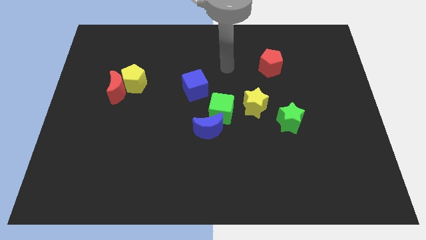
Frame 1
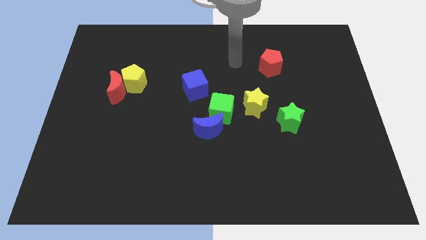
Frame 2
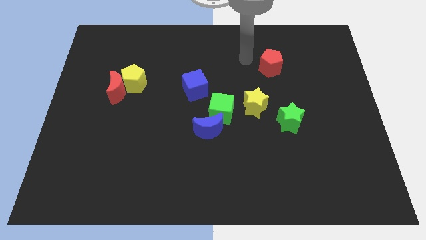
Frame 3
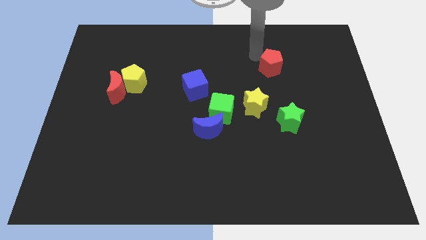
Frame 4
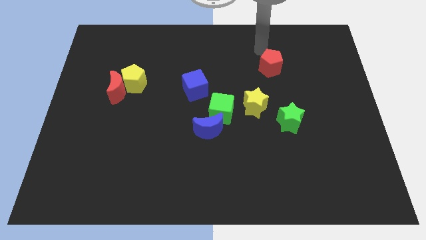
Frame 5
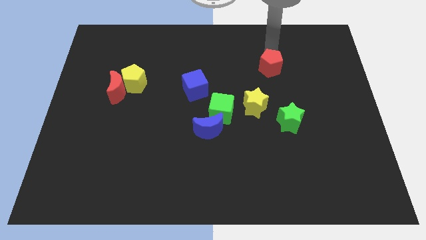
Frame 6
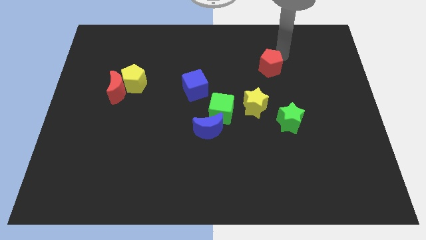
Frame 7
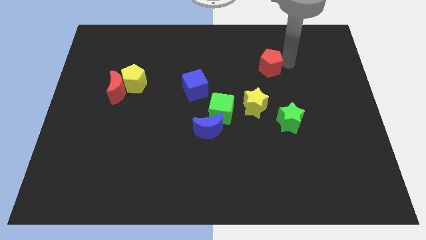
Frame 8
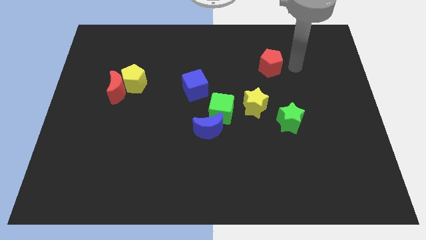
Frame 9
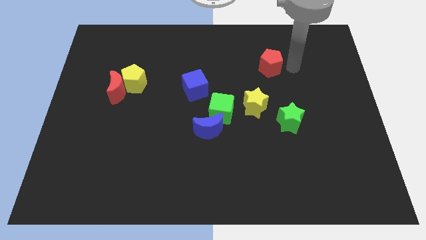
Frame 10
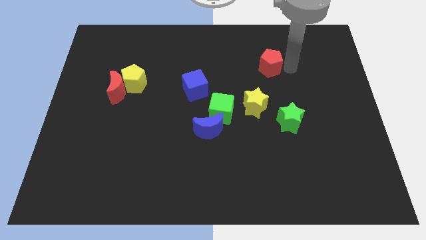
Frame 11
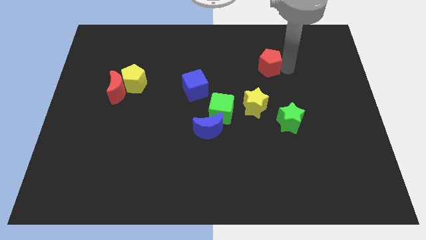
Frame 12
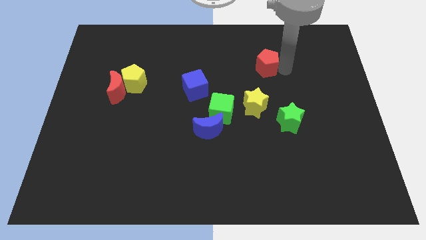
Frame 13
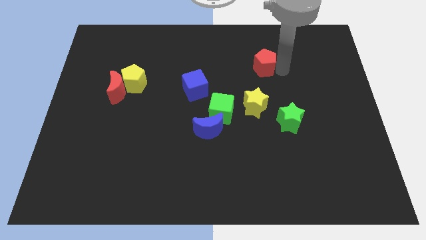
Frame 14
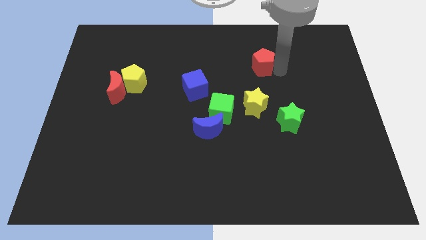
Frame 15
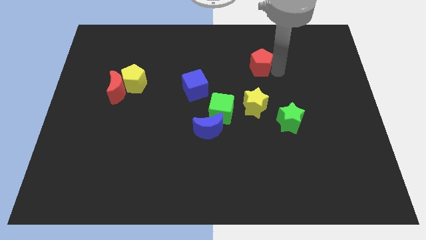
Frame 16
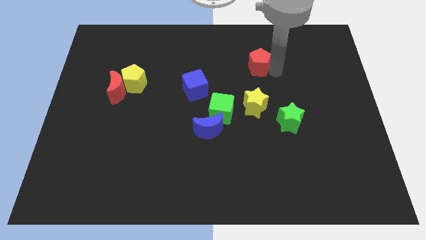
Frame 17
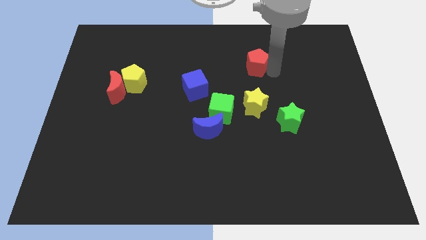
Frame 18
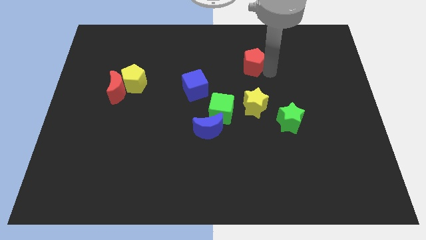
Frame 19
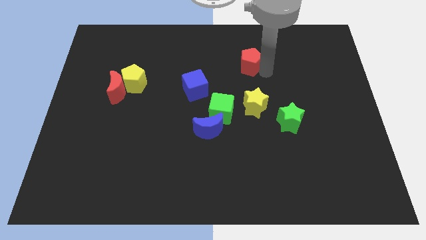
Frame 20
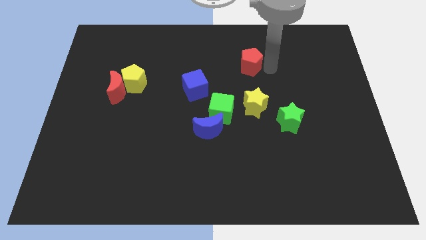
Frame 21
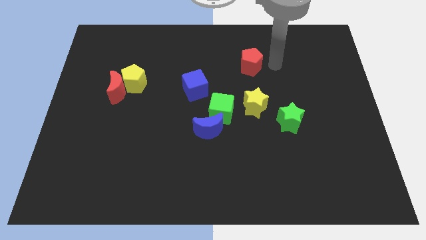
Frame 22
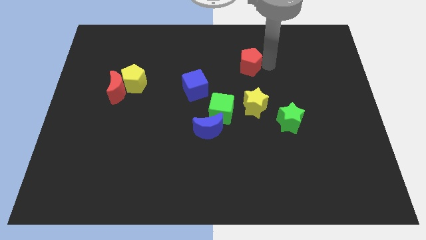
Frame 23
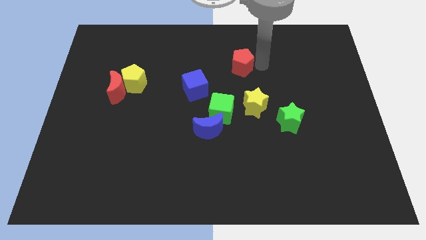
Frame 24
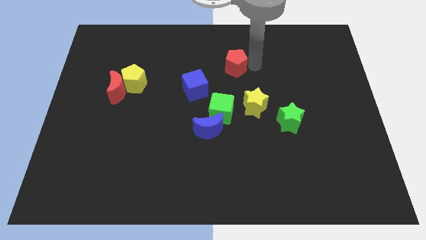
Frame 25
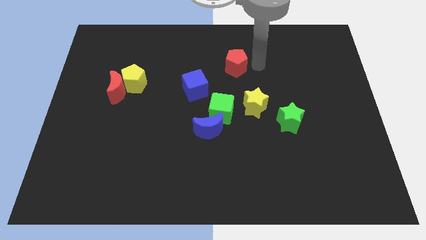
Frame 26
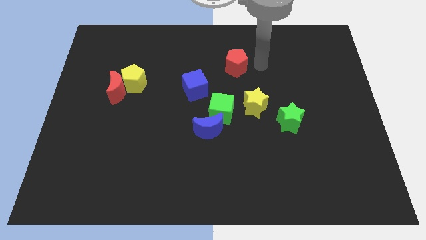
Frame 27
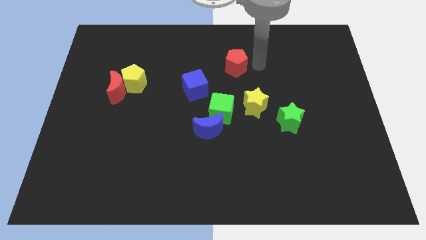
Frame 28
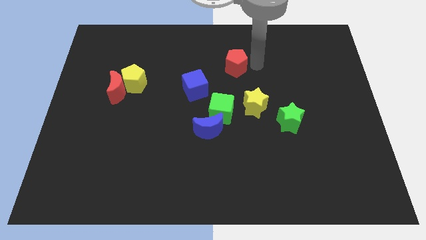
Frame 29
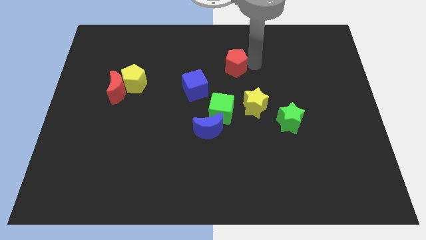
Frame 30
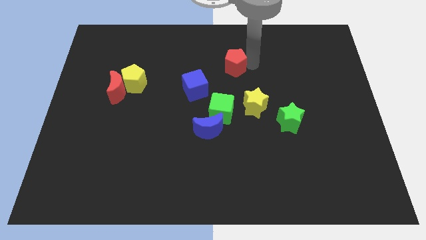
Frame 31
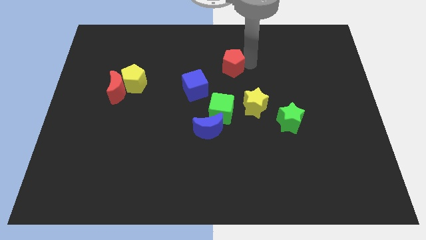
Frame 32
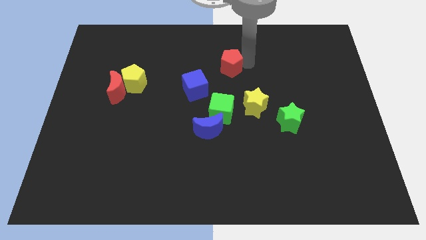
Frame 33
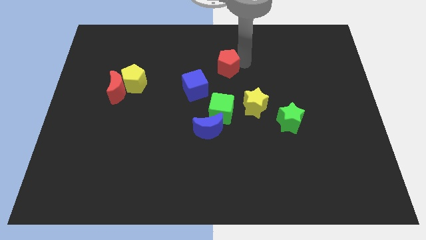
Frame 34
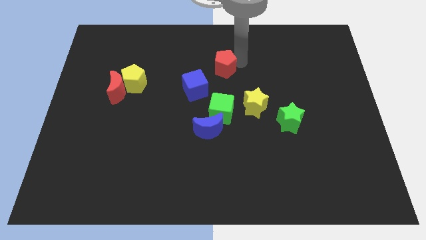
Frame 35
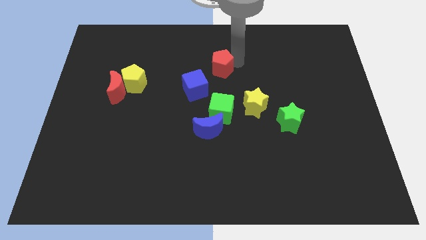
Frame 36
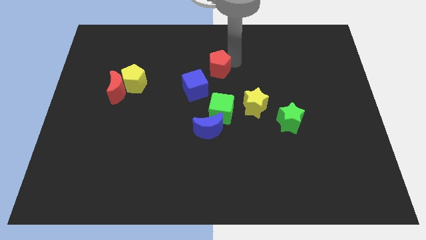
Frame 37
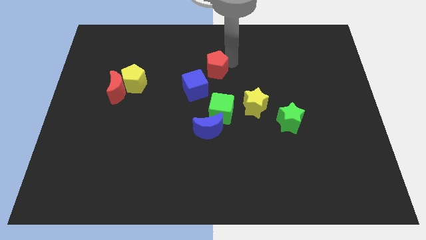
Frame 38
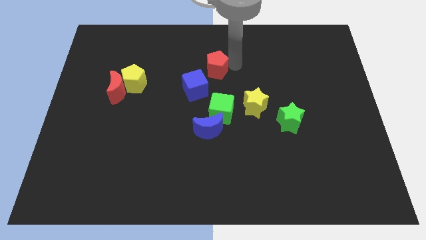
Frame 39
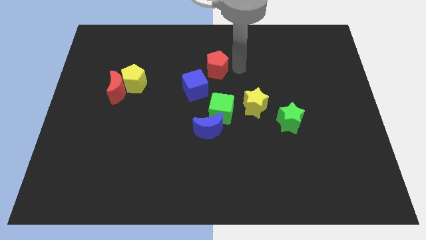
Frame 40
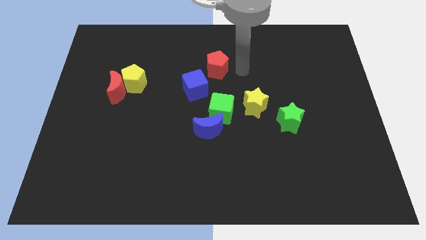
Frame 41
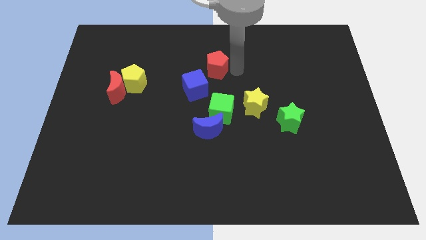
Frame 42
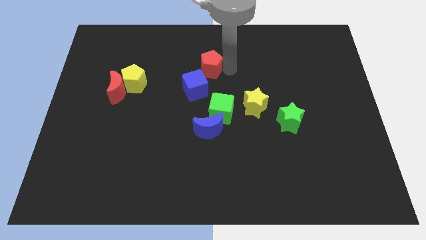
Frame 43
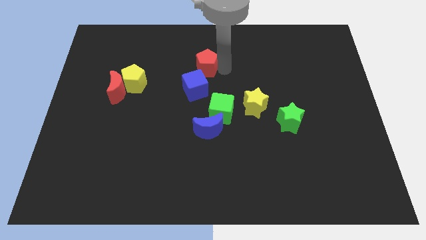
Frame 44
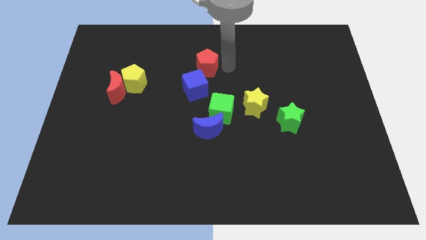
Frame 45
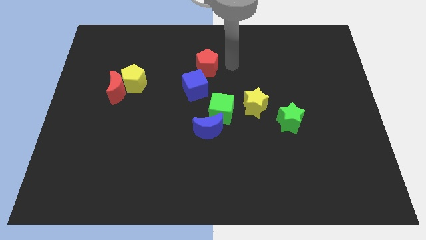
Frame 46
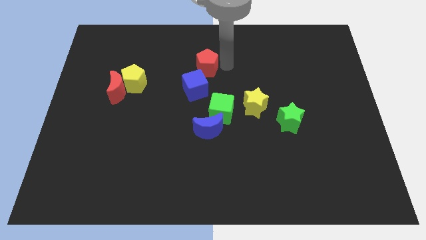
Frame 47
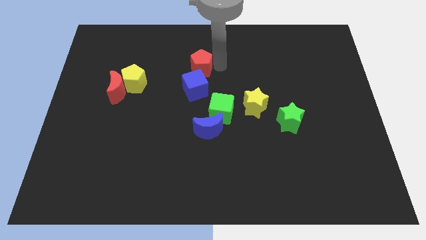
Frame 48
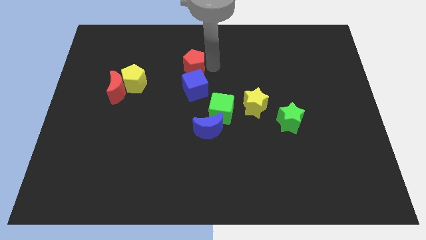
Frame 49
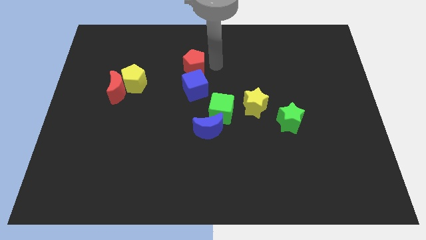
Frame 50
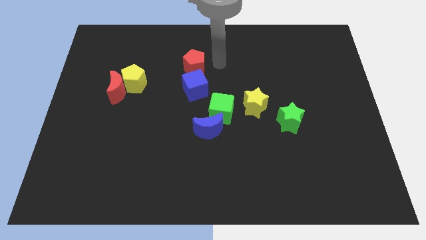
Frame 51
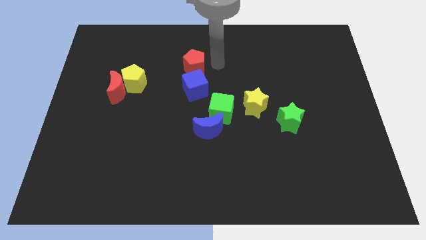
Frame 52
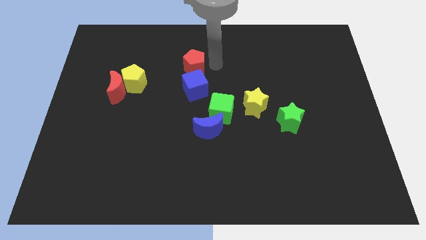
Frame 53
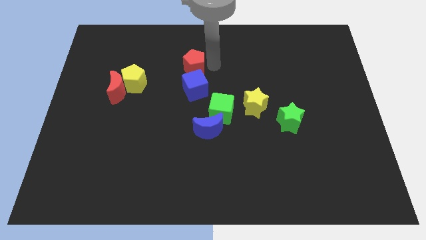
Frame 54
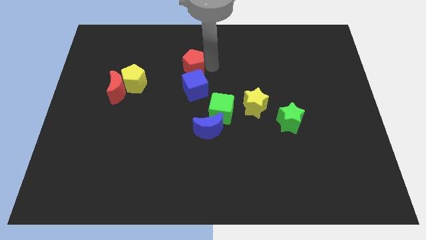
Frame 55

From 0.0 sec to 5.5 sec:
push the red pentagon to the left

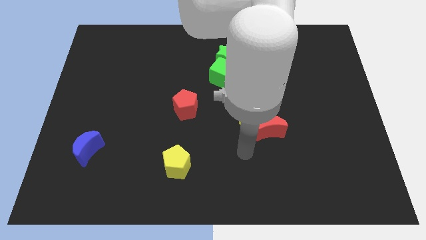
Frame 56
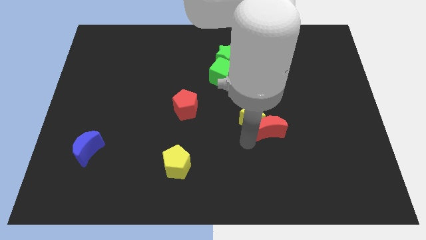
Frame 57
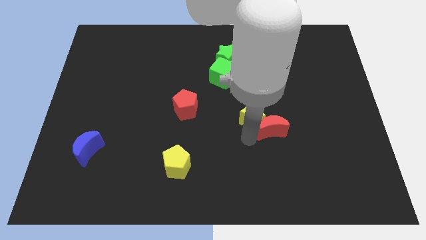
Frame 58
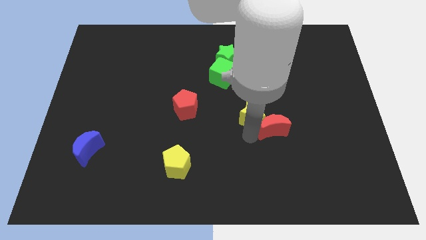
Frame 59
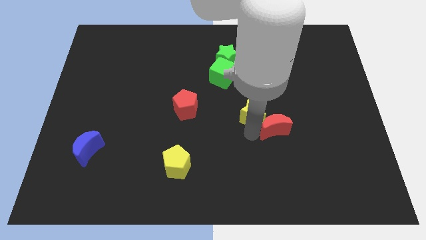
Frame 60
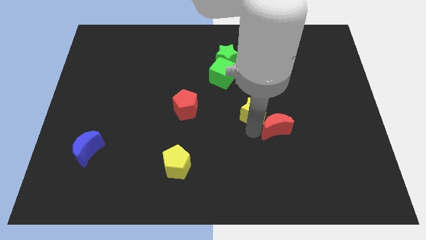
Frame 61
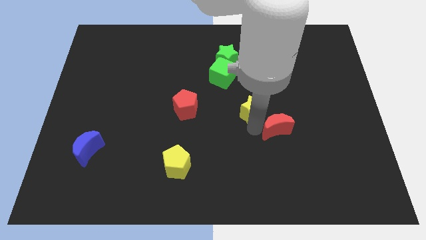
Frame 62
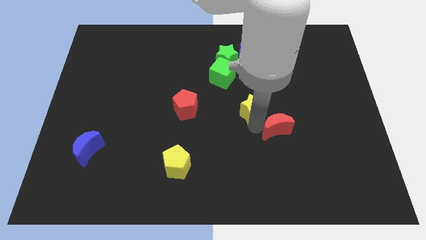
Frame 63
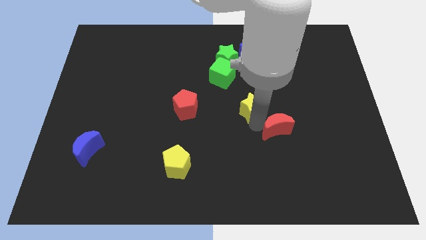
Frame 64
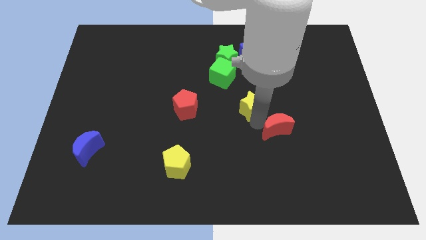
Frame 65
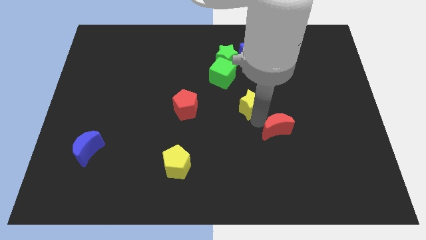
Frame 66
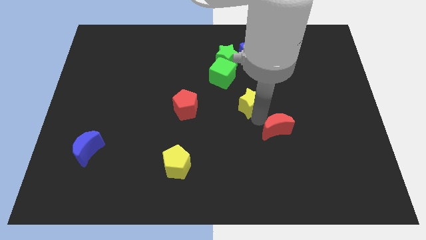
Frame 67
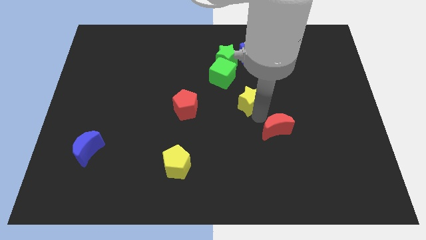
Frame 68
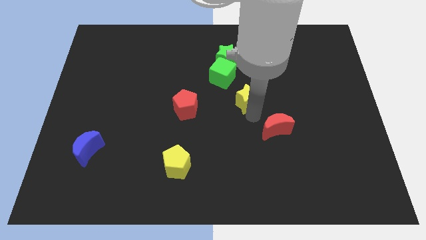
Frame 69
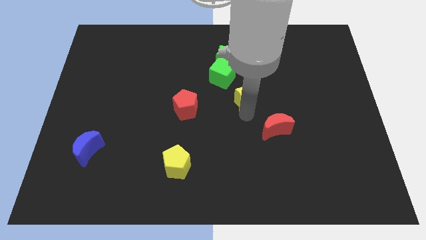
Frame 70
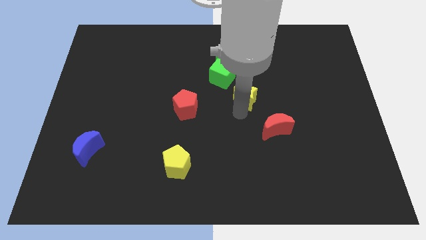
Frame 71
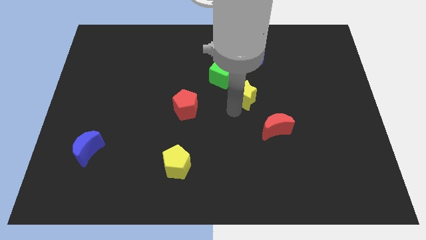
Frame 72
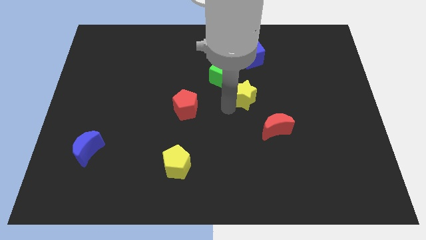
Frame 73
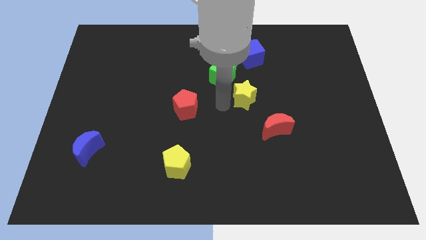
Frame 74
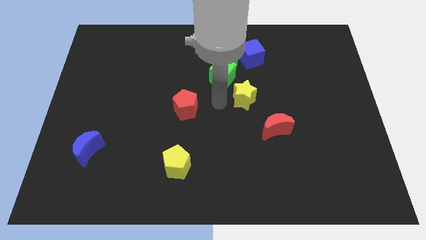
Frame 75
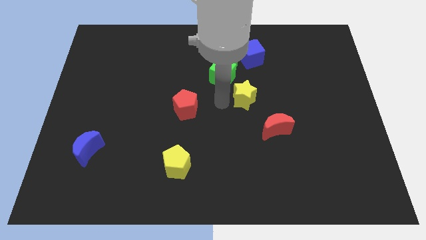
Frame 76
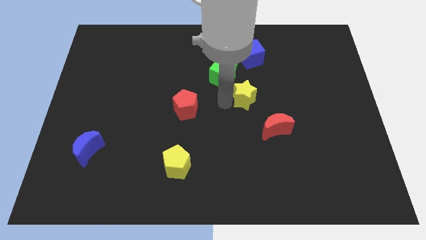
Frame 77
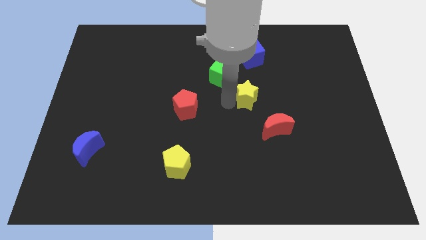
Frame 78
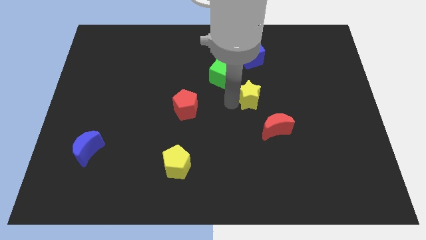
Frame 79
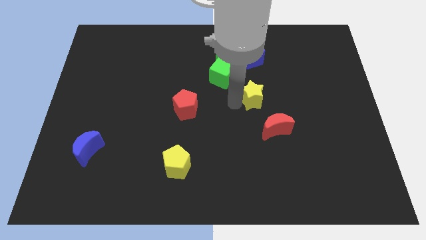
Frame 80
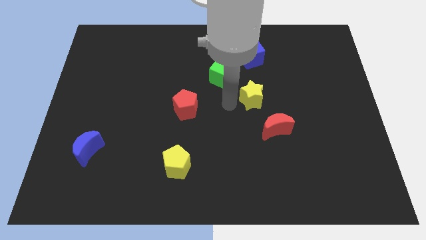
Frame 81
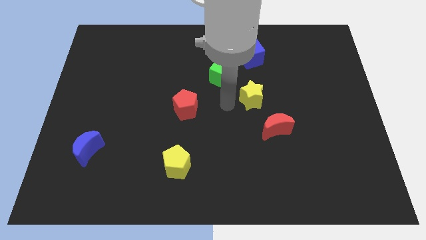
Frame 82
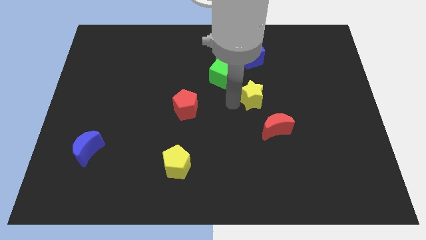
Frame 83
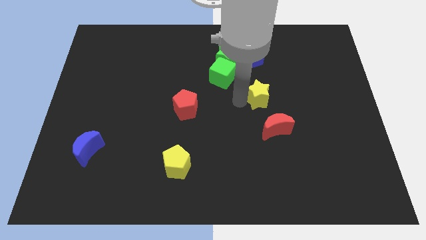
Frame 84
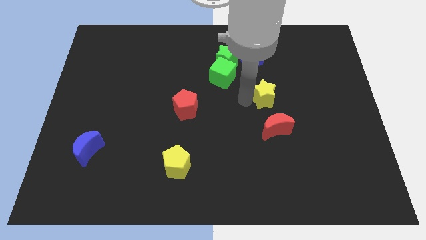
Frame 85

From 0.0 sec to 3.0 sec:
move the yellow star slightly upwards and right
